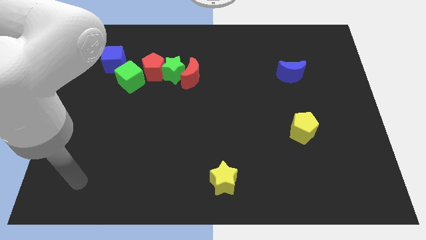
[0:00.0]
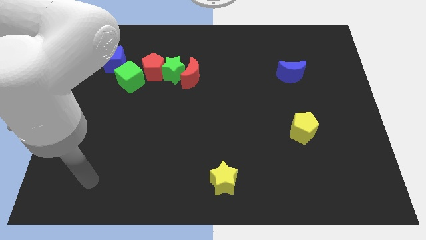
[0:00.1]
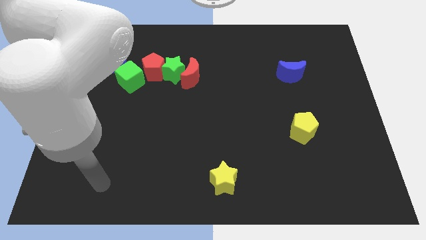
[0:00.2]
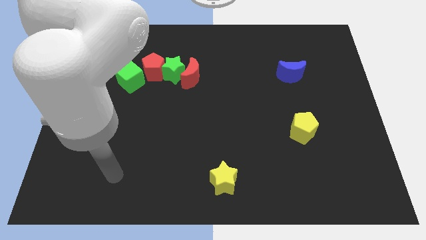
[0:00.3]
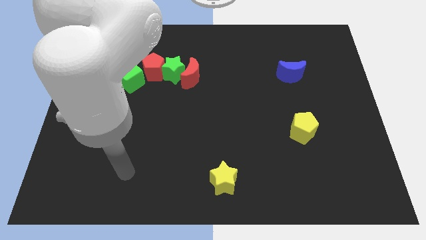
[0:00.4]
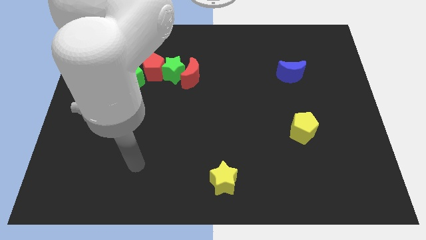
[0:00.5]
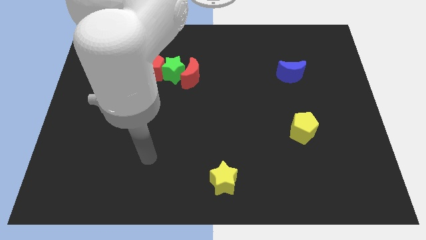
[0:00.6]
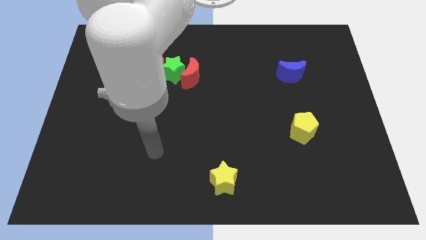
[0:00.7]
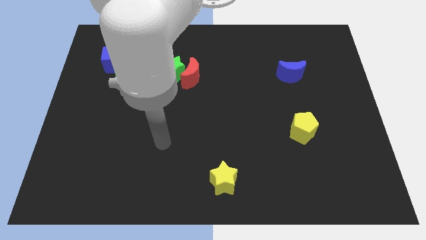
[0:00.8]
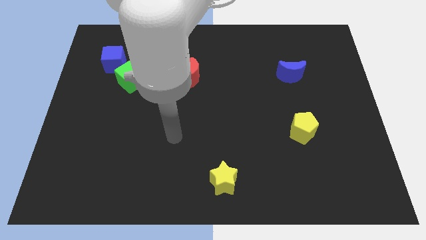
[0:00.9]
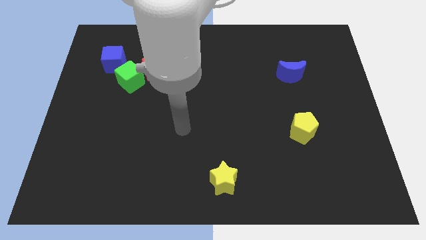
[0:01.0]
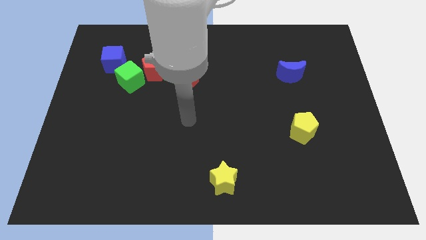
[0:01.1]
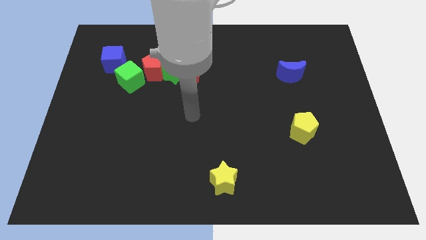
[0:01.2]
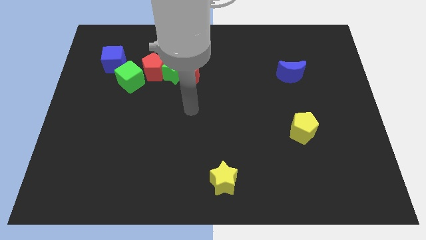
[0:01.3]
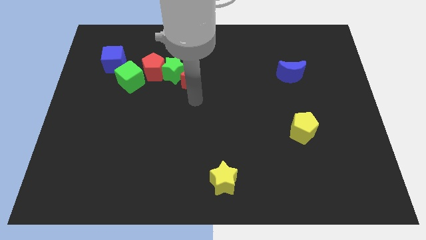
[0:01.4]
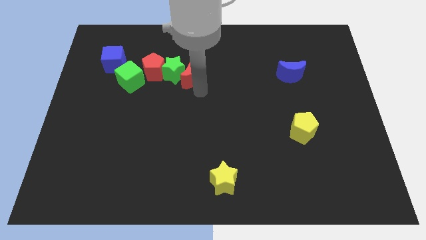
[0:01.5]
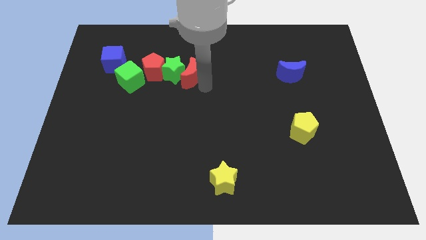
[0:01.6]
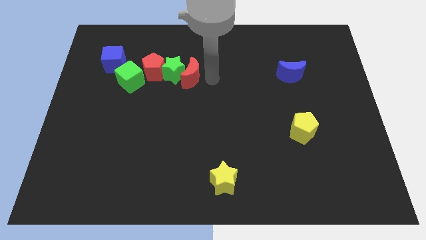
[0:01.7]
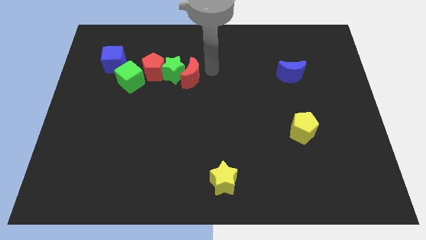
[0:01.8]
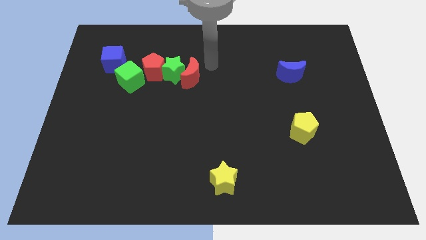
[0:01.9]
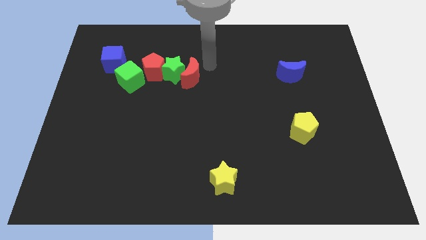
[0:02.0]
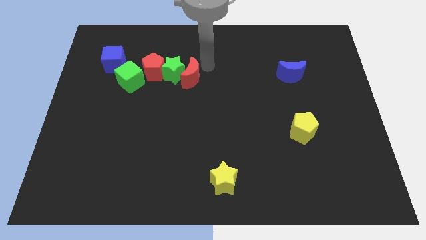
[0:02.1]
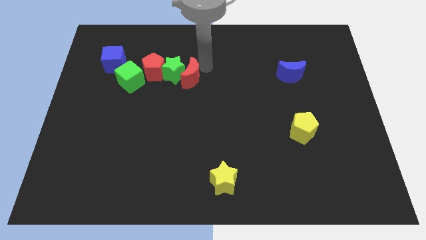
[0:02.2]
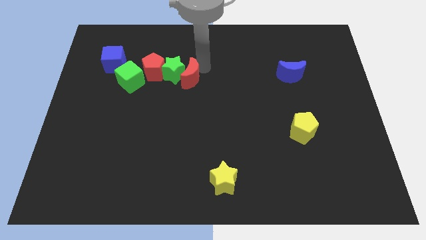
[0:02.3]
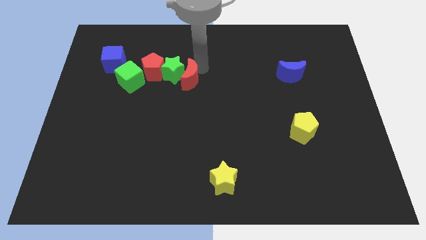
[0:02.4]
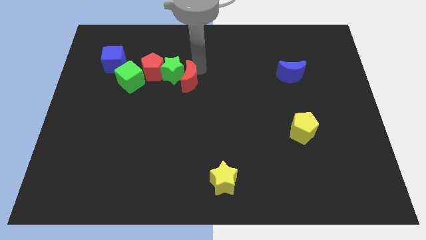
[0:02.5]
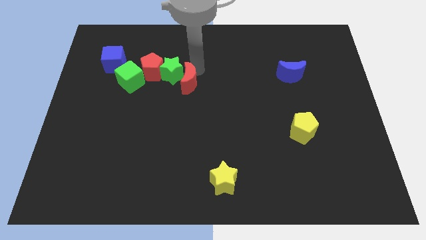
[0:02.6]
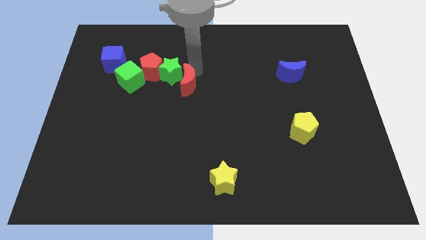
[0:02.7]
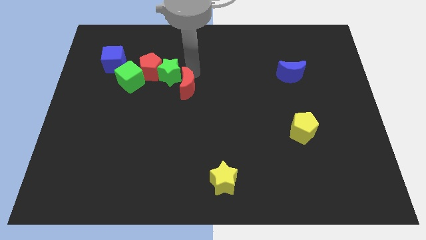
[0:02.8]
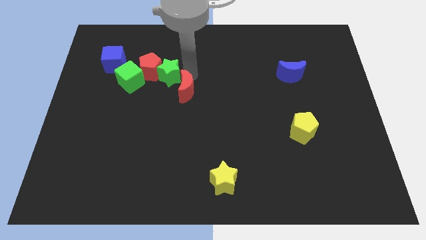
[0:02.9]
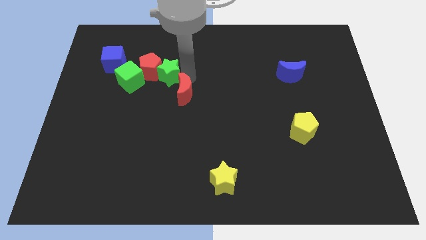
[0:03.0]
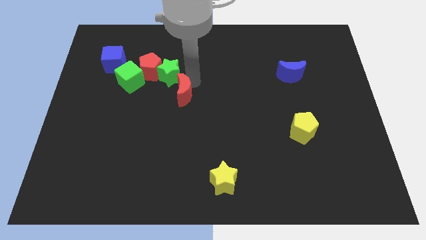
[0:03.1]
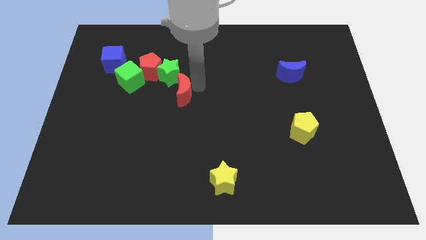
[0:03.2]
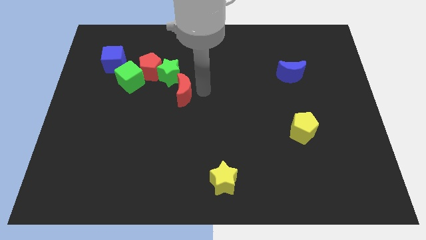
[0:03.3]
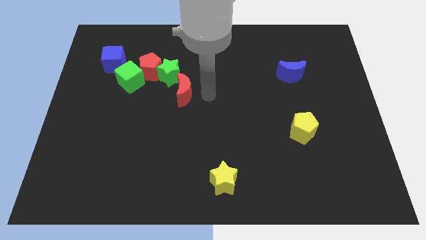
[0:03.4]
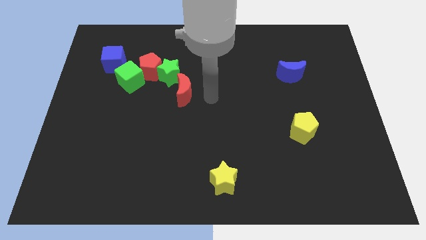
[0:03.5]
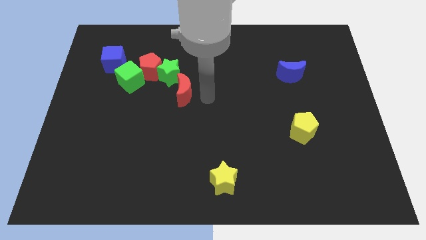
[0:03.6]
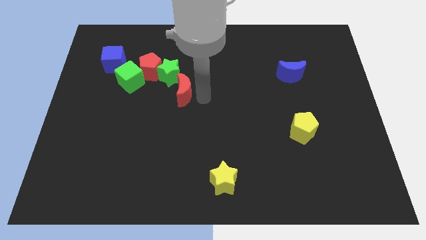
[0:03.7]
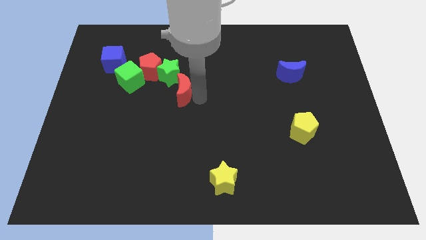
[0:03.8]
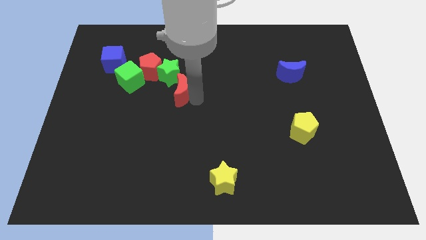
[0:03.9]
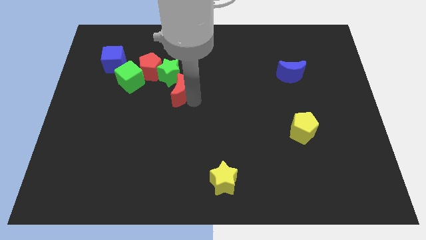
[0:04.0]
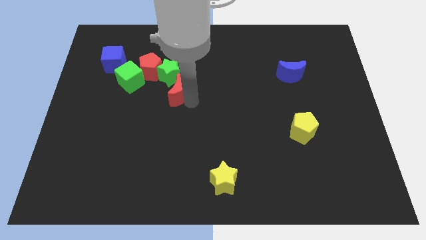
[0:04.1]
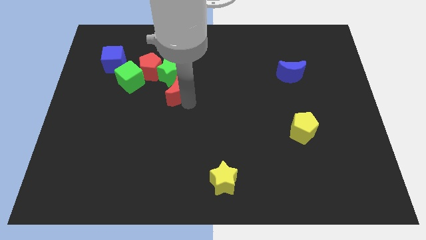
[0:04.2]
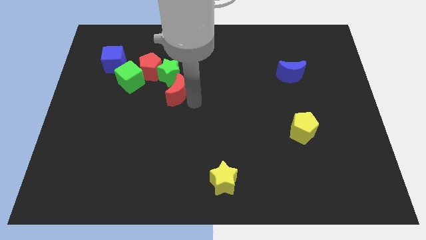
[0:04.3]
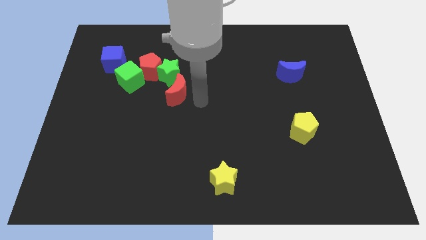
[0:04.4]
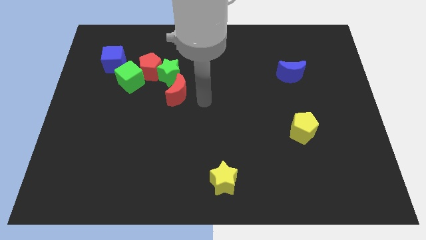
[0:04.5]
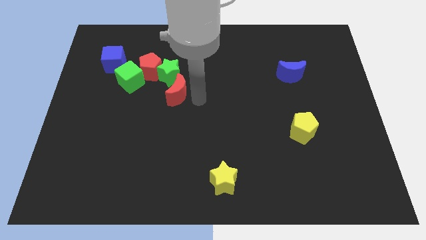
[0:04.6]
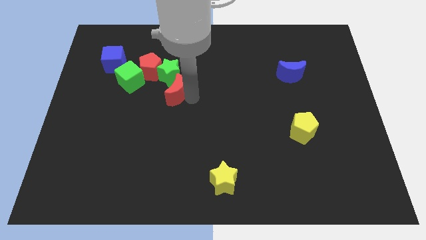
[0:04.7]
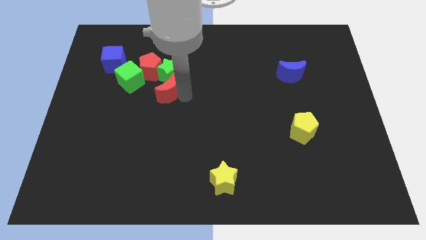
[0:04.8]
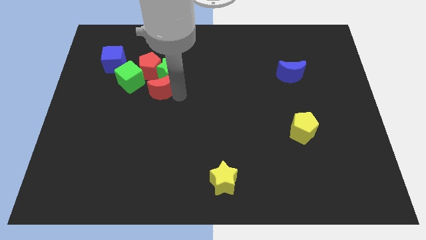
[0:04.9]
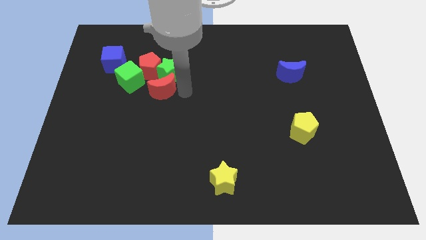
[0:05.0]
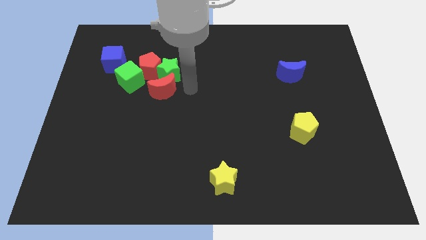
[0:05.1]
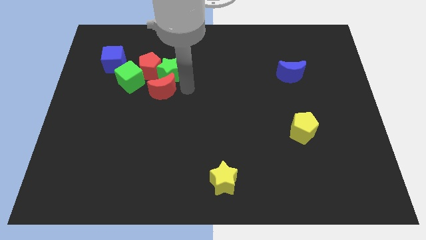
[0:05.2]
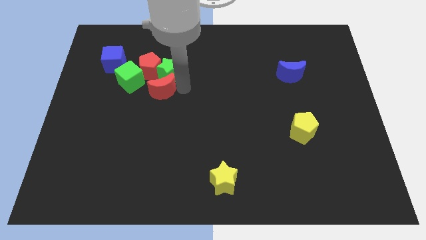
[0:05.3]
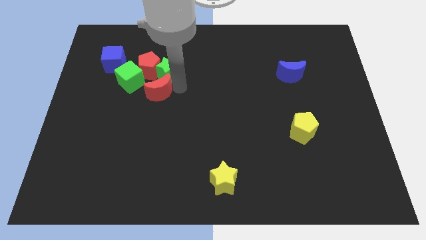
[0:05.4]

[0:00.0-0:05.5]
slide the red moon to the left a little

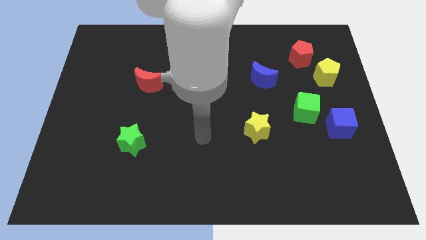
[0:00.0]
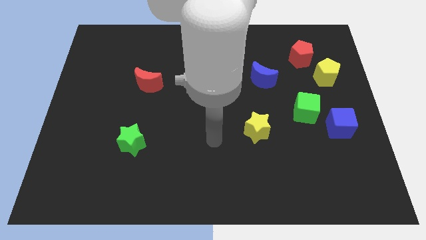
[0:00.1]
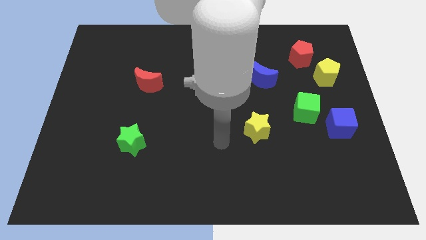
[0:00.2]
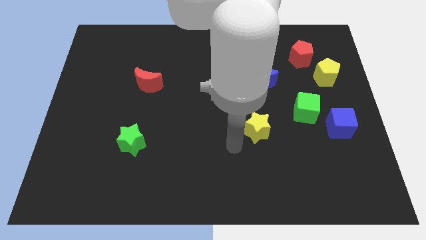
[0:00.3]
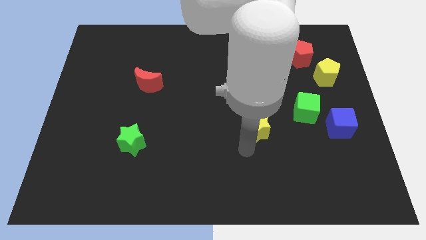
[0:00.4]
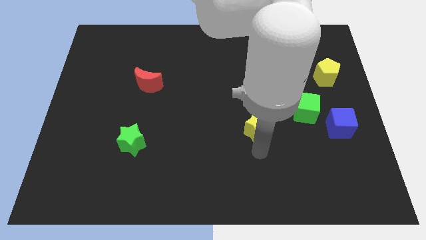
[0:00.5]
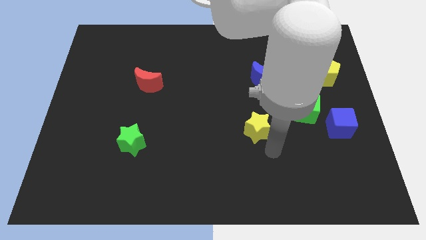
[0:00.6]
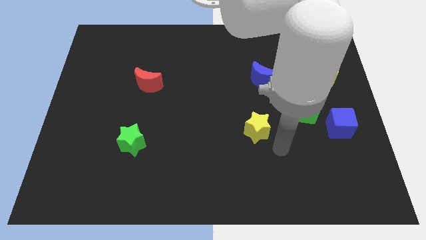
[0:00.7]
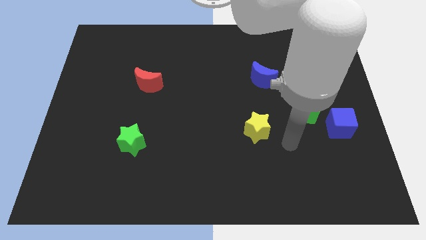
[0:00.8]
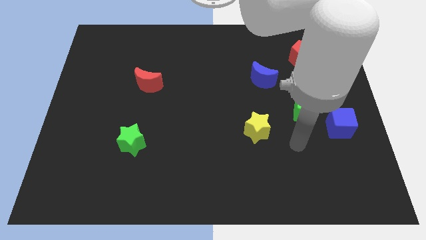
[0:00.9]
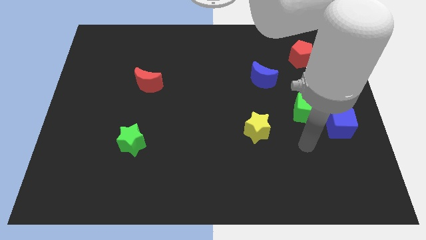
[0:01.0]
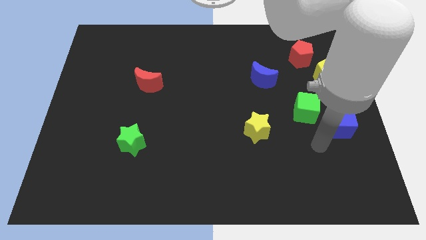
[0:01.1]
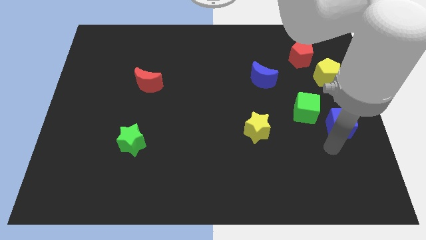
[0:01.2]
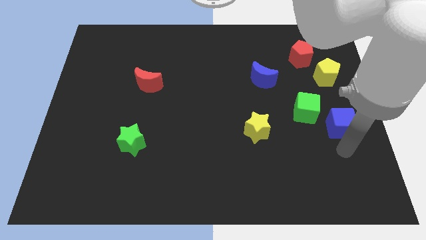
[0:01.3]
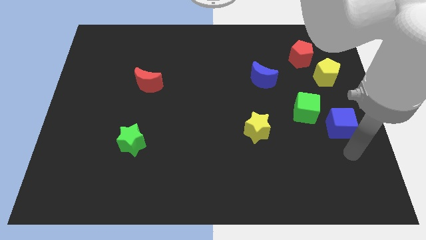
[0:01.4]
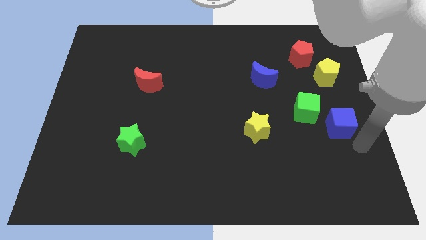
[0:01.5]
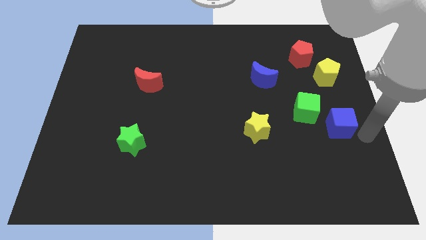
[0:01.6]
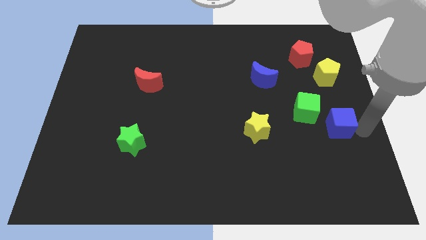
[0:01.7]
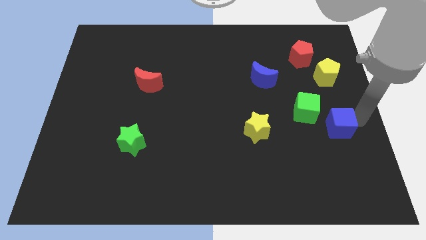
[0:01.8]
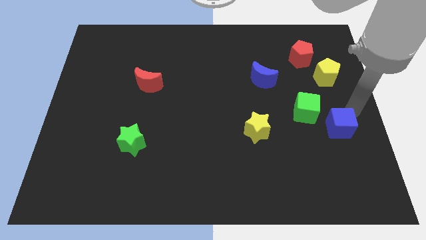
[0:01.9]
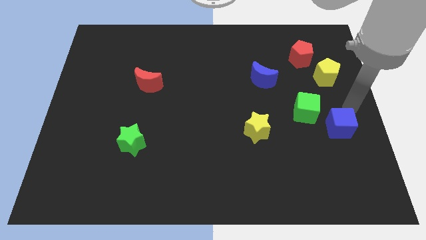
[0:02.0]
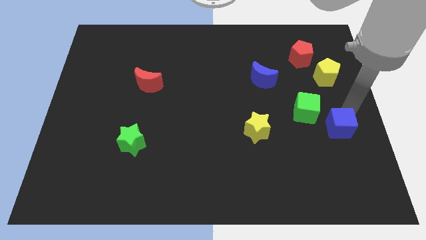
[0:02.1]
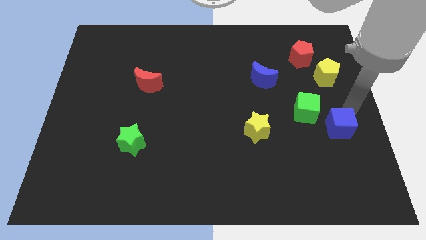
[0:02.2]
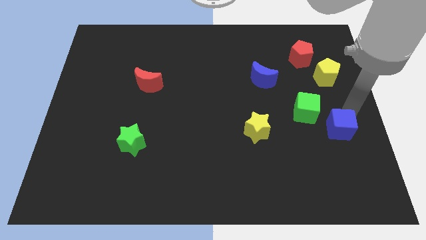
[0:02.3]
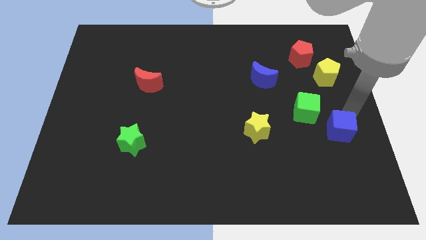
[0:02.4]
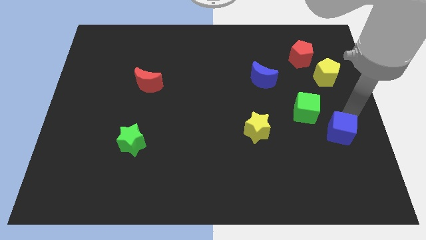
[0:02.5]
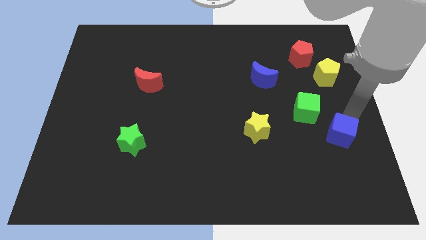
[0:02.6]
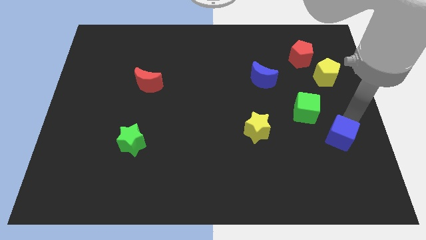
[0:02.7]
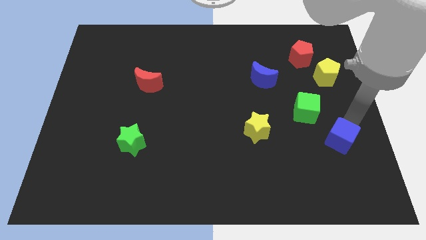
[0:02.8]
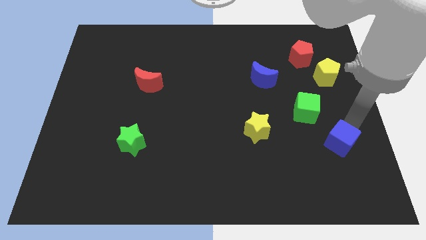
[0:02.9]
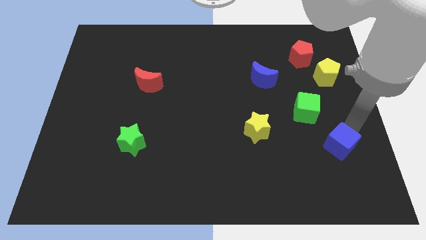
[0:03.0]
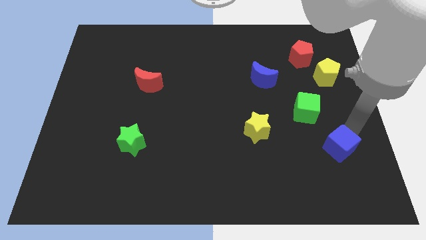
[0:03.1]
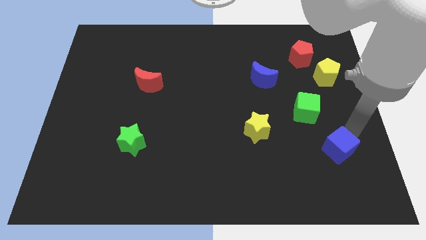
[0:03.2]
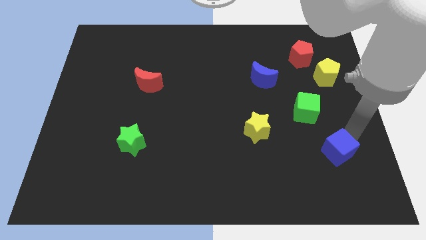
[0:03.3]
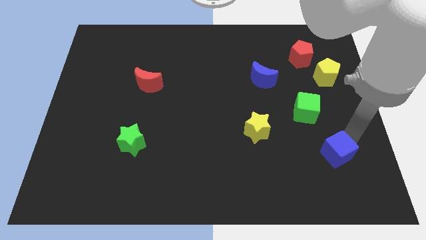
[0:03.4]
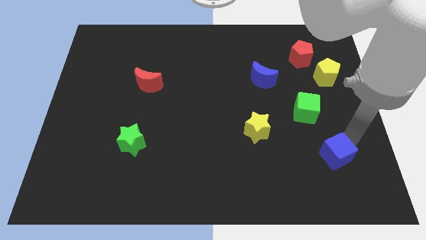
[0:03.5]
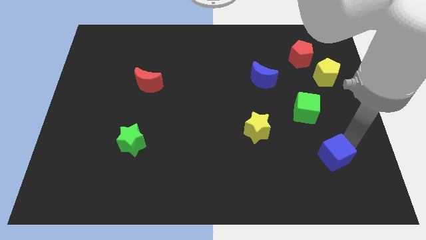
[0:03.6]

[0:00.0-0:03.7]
push the blue cube down and left diagonally a bit
